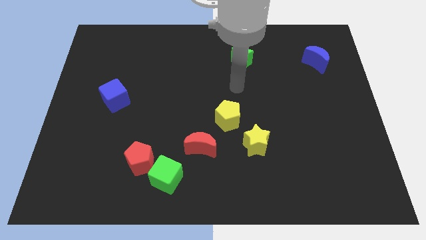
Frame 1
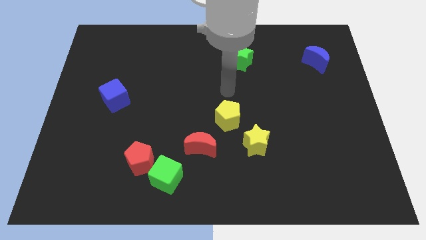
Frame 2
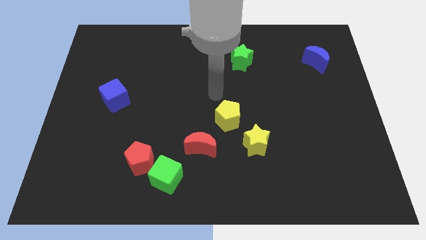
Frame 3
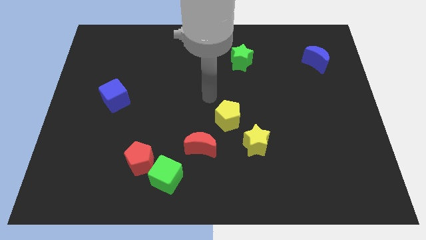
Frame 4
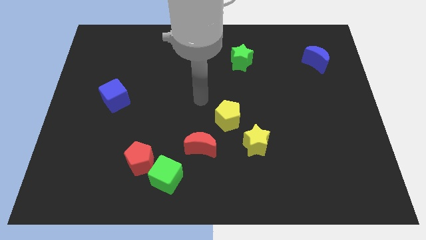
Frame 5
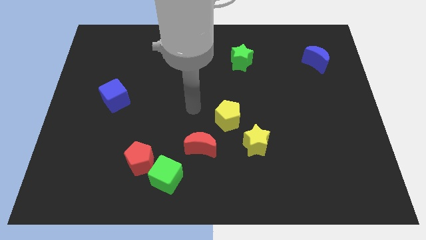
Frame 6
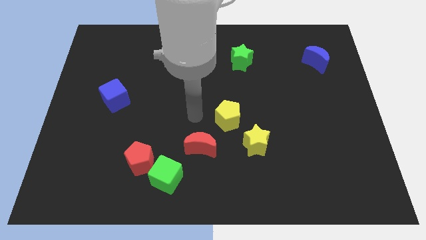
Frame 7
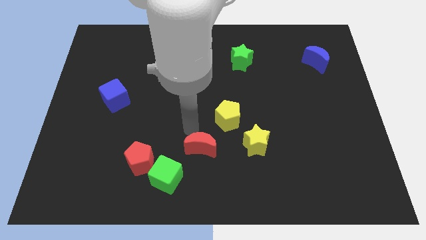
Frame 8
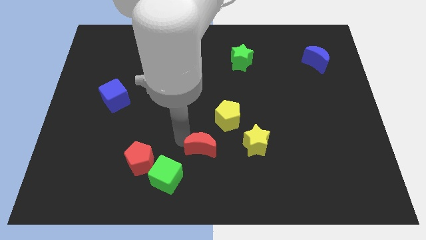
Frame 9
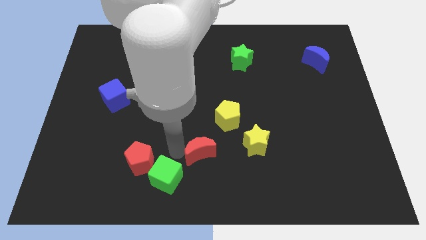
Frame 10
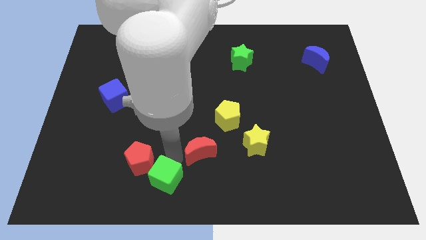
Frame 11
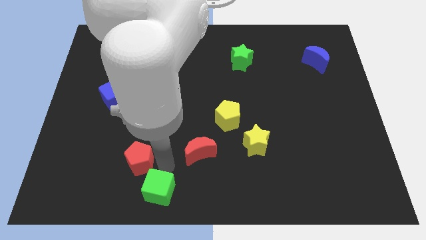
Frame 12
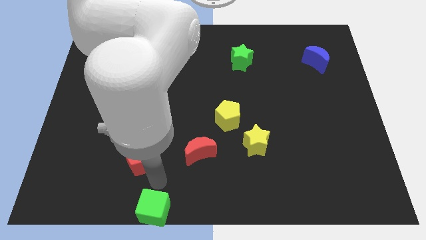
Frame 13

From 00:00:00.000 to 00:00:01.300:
separate the red pentagon from the green cube

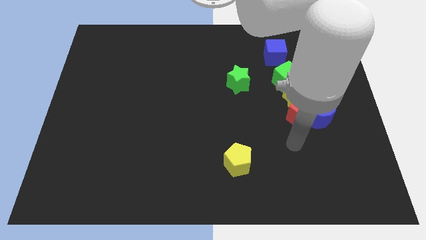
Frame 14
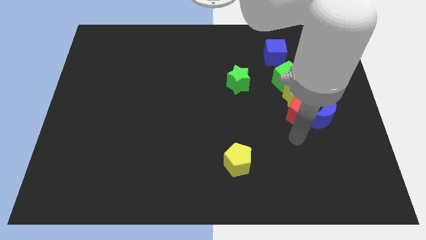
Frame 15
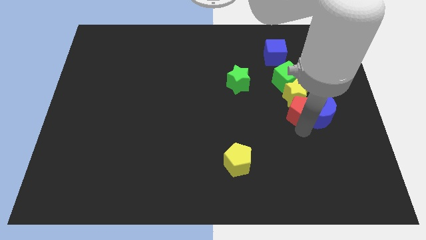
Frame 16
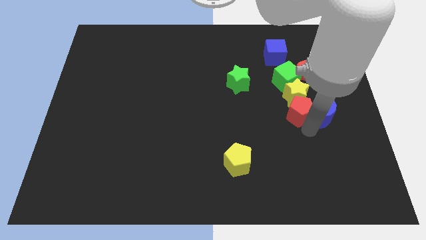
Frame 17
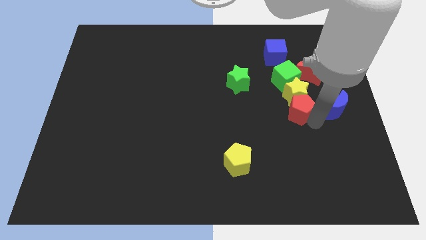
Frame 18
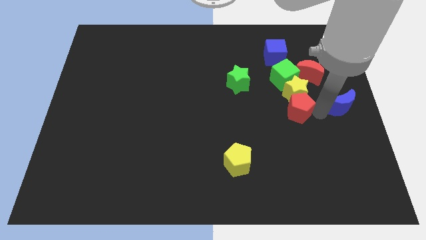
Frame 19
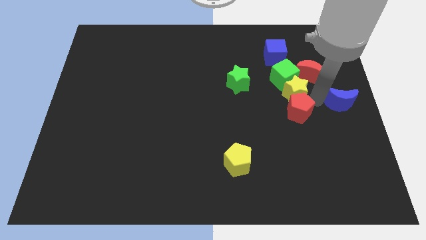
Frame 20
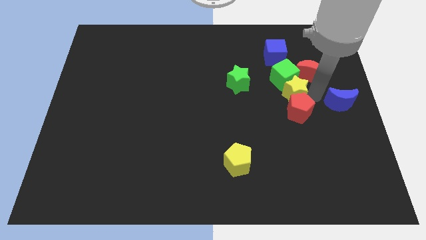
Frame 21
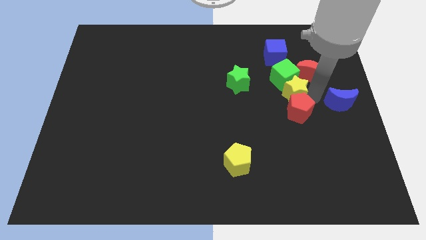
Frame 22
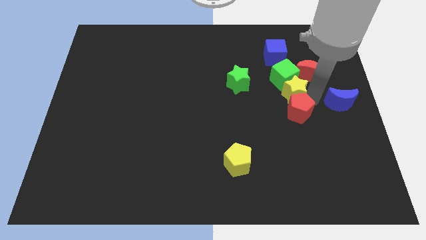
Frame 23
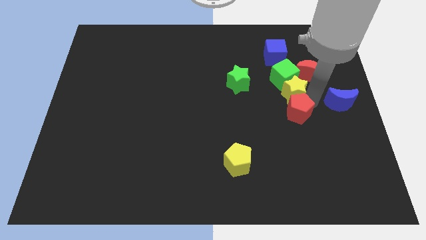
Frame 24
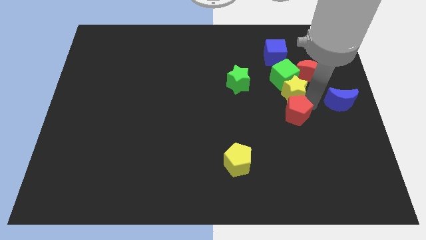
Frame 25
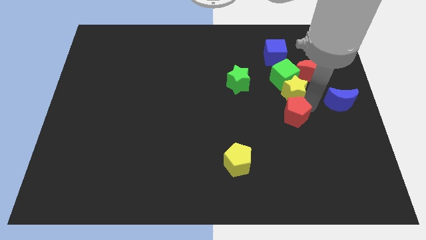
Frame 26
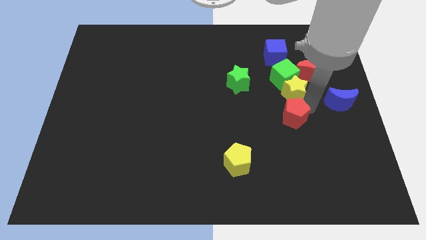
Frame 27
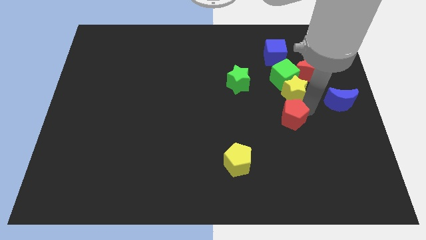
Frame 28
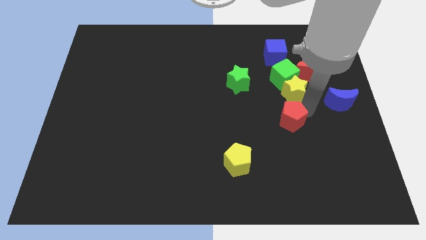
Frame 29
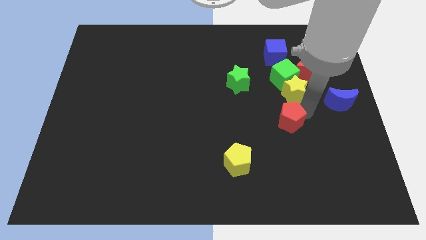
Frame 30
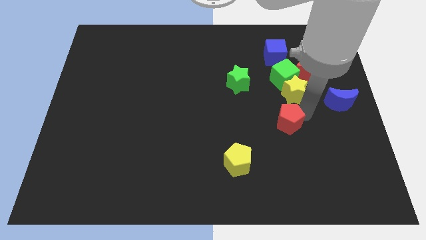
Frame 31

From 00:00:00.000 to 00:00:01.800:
move the red pentagon away from the yellow star and blue moon

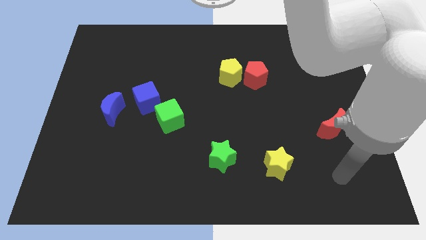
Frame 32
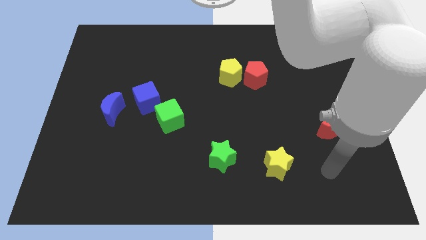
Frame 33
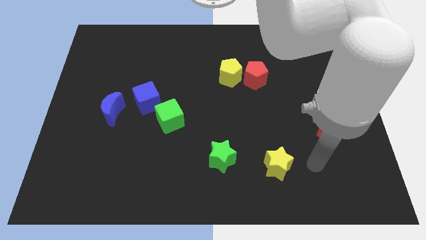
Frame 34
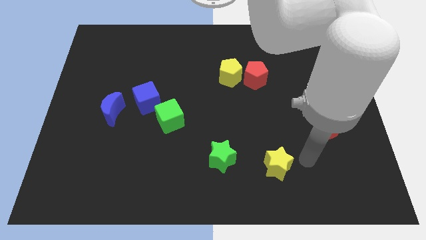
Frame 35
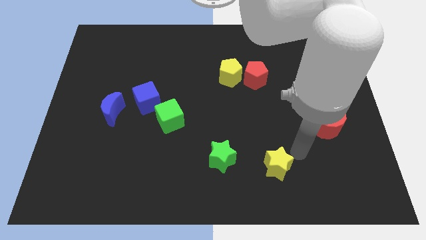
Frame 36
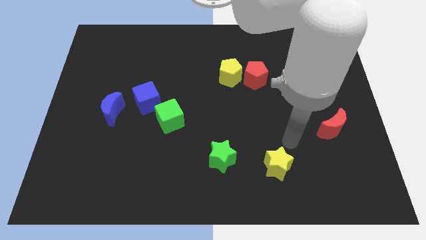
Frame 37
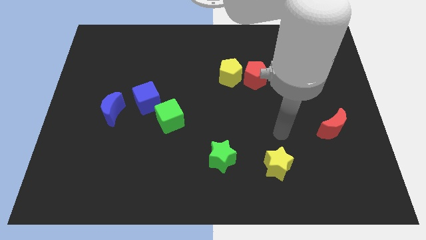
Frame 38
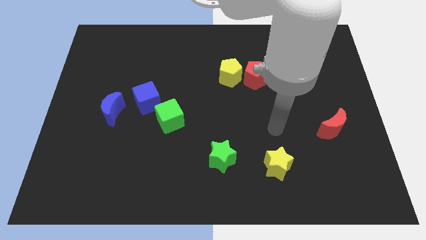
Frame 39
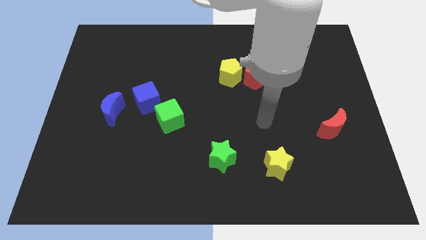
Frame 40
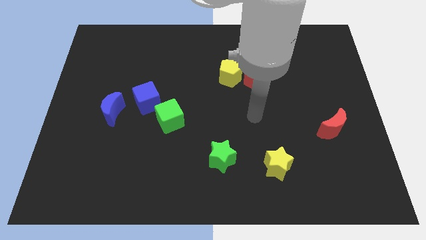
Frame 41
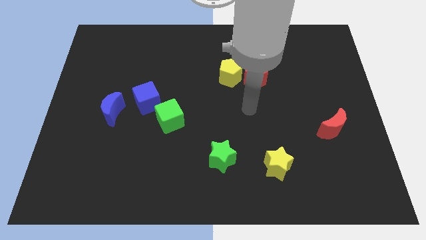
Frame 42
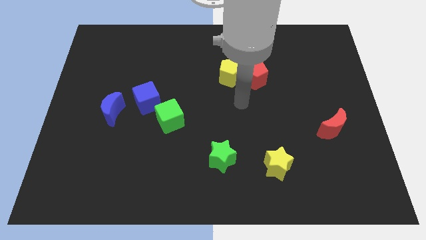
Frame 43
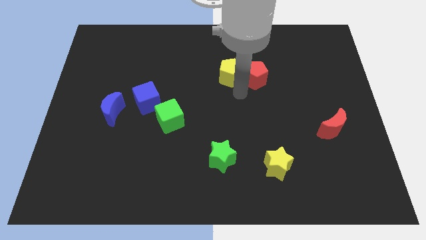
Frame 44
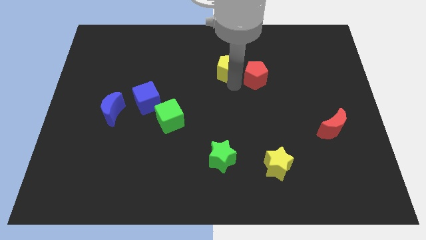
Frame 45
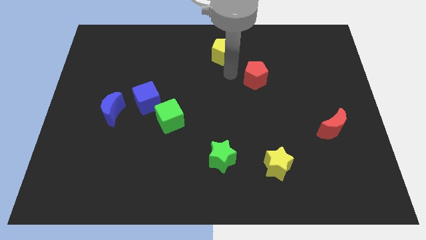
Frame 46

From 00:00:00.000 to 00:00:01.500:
move the red pentagon away from the yellow pentagon

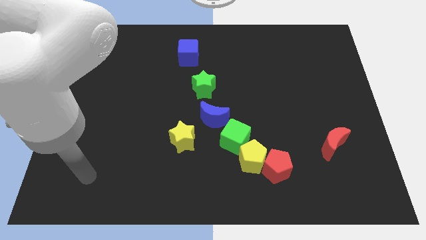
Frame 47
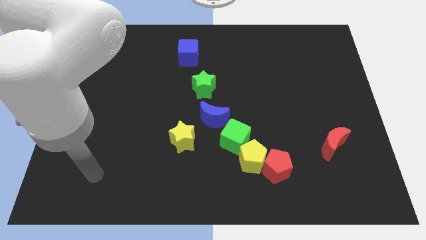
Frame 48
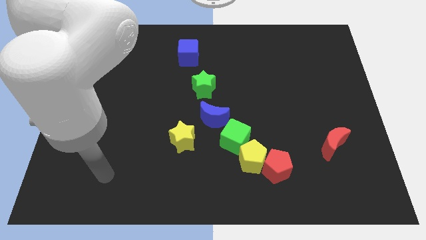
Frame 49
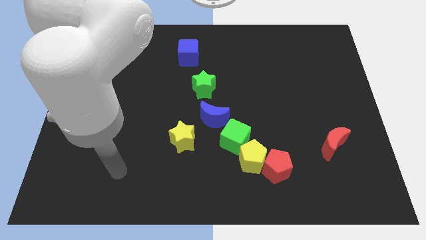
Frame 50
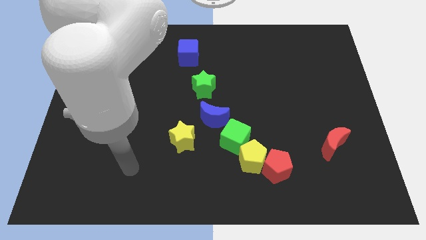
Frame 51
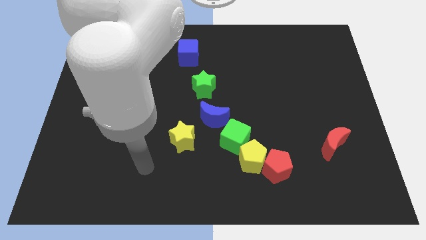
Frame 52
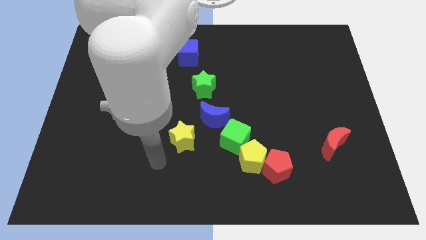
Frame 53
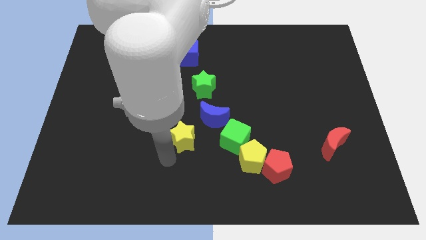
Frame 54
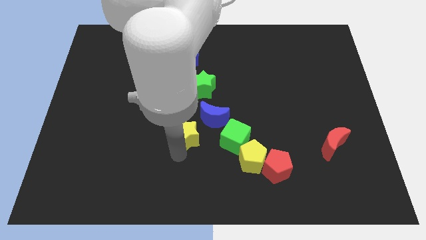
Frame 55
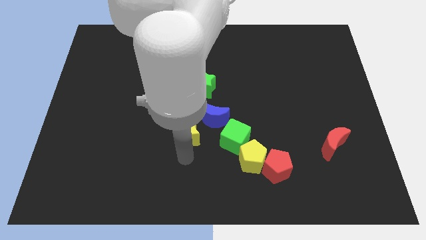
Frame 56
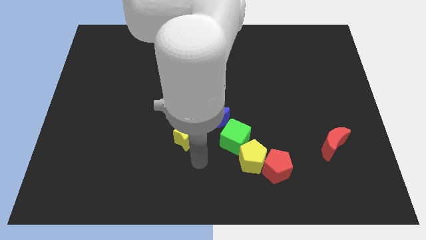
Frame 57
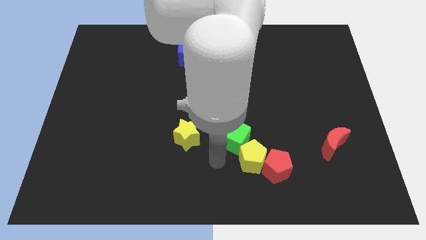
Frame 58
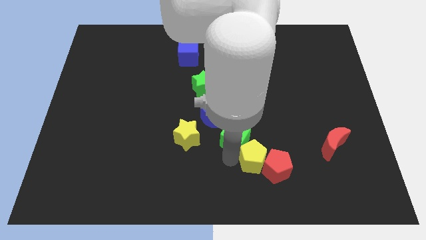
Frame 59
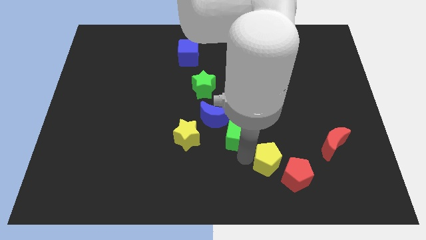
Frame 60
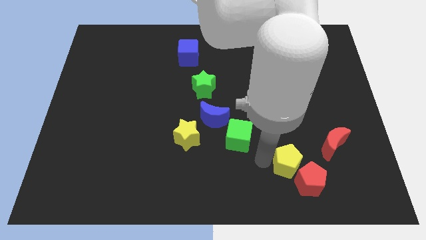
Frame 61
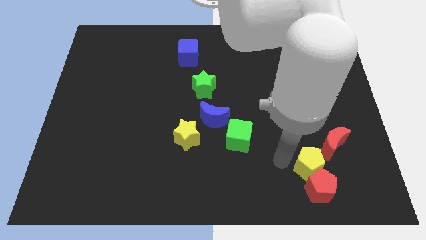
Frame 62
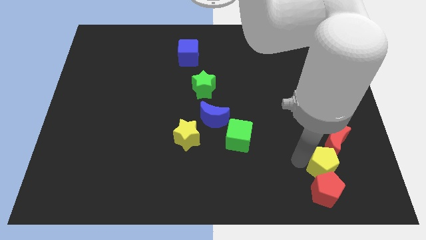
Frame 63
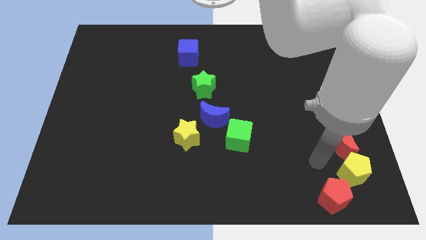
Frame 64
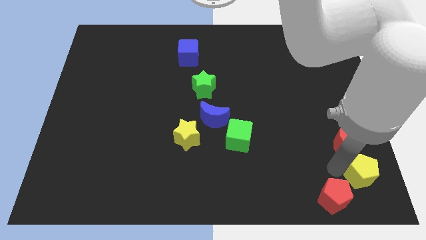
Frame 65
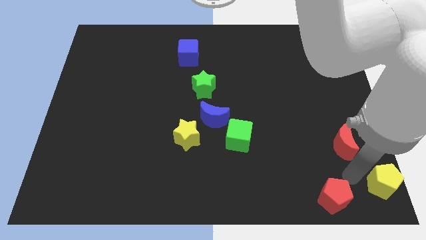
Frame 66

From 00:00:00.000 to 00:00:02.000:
pull the red pentagon apart from the yellow pentagon

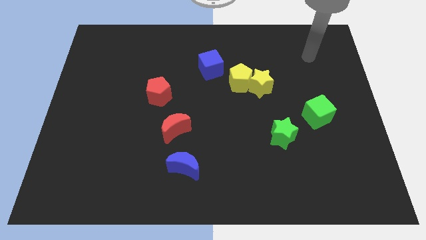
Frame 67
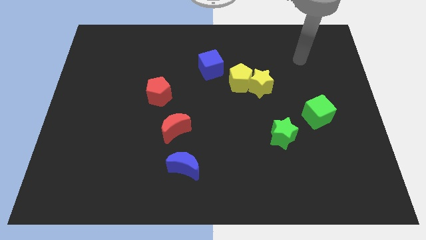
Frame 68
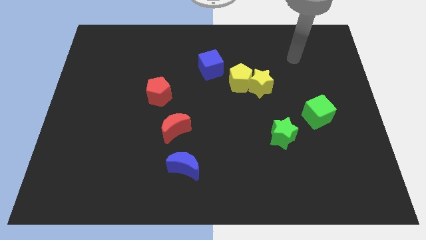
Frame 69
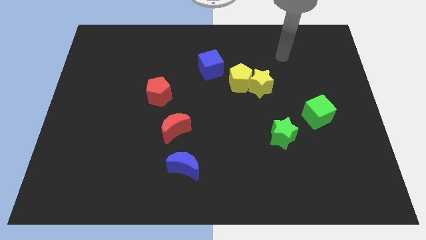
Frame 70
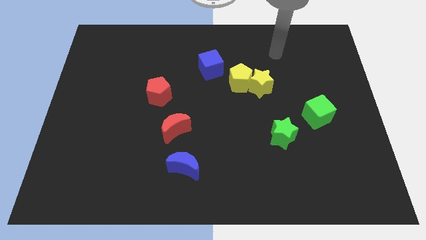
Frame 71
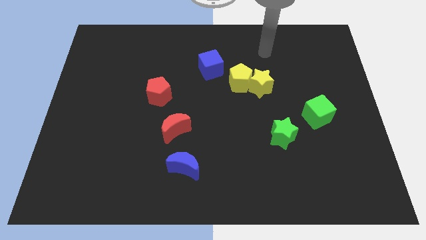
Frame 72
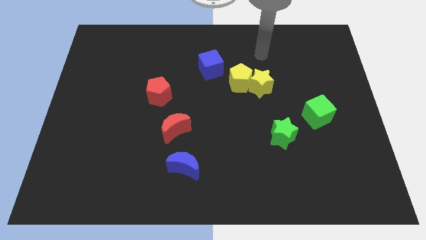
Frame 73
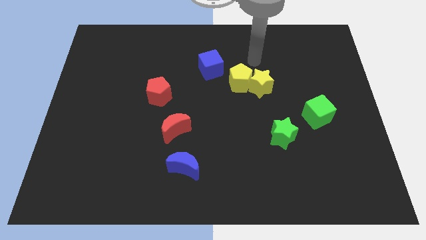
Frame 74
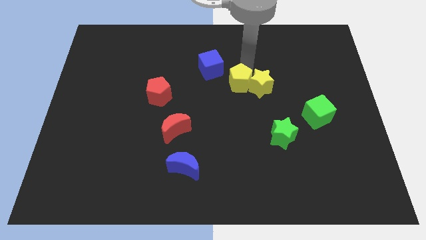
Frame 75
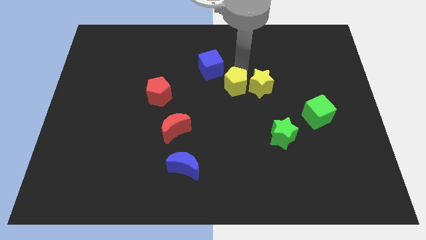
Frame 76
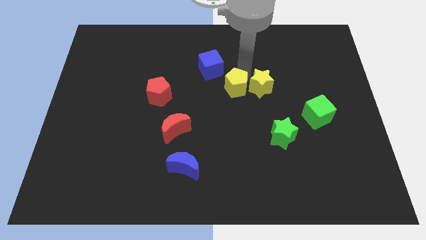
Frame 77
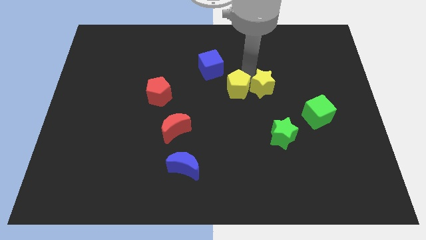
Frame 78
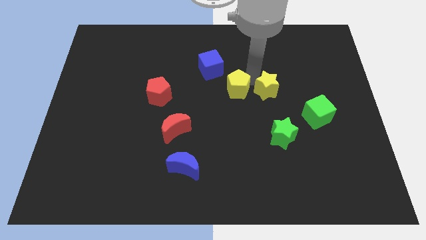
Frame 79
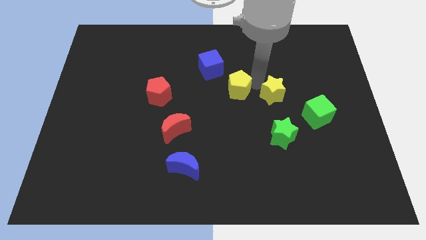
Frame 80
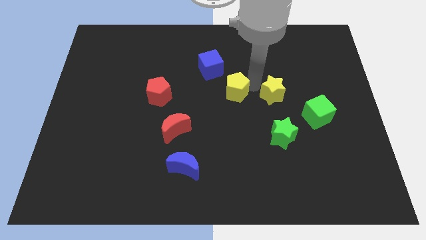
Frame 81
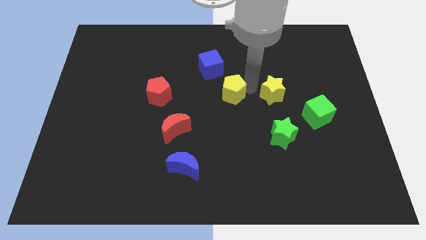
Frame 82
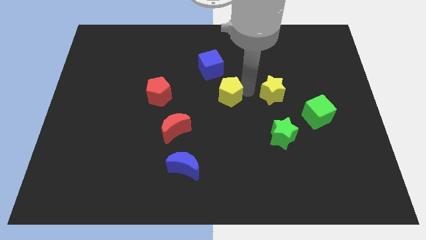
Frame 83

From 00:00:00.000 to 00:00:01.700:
separate the yellow star from the yellow pentagon

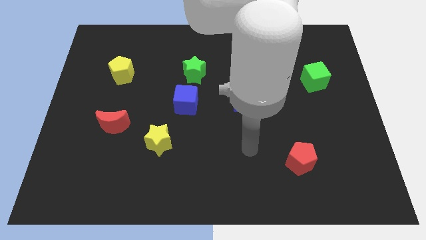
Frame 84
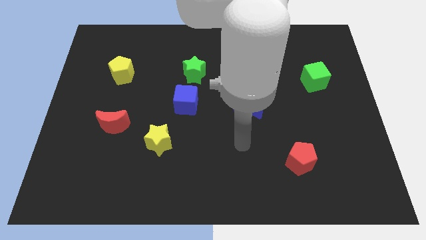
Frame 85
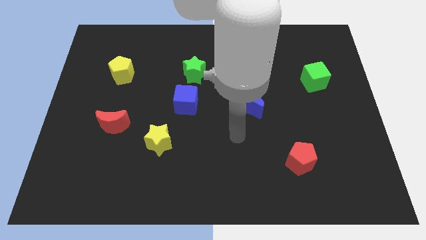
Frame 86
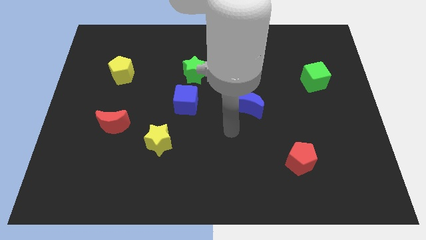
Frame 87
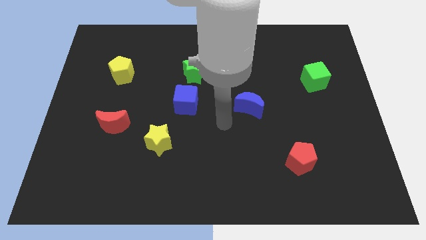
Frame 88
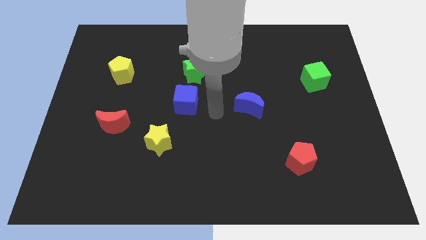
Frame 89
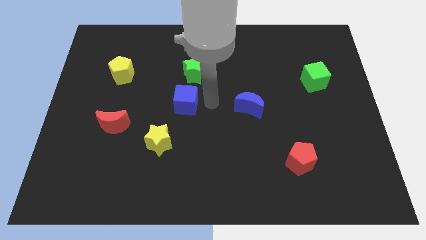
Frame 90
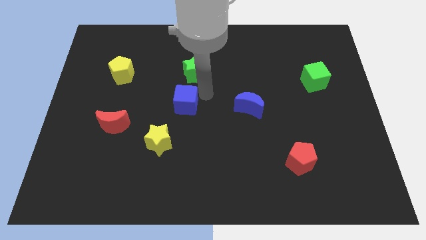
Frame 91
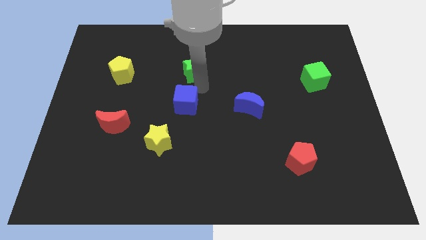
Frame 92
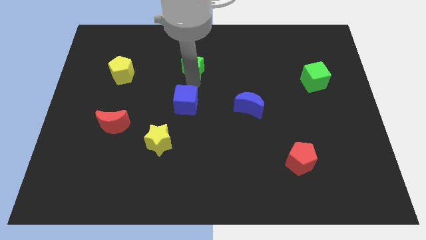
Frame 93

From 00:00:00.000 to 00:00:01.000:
pull the blue cube apart from the green star

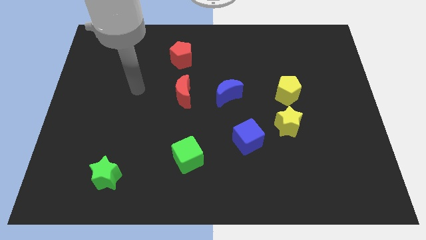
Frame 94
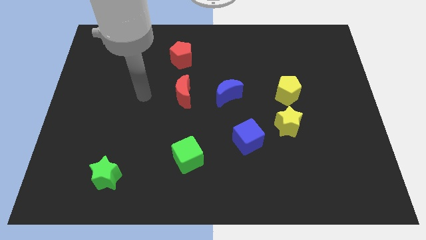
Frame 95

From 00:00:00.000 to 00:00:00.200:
separate the yellow pentagon from the yellow star
